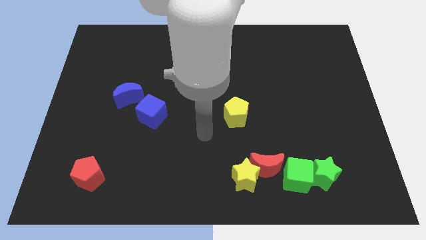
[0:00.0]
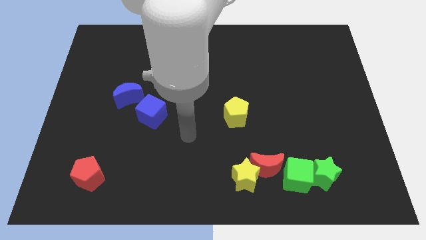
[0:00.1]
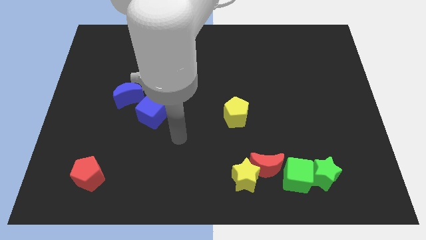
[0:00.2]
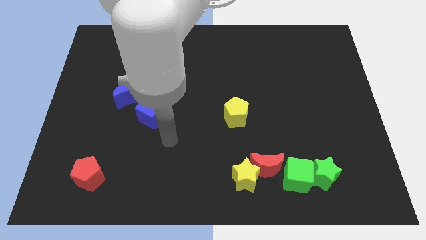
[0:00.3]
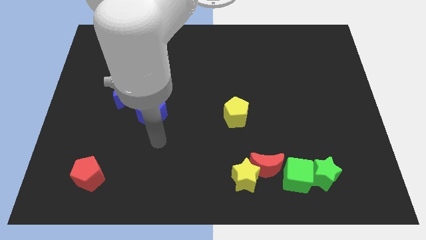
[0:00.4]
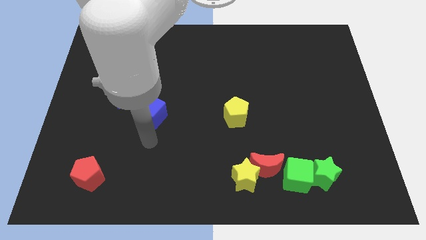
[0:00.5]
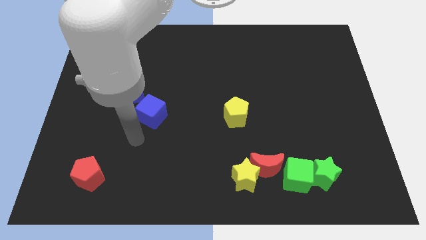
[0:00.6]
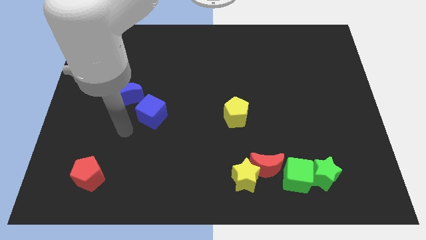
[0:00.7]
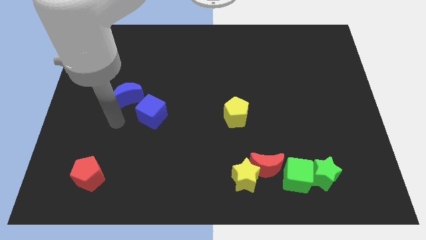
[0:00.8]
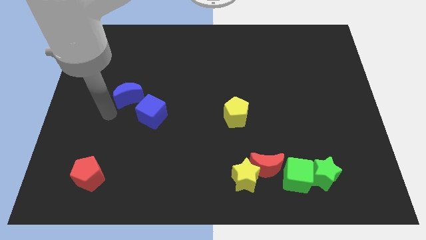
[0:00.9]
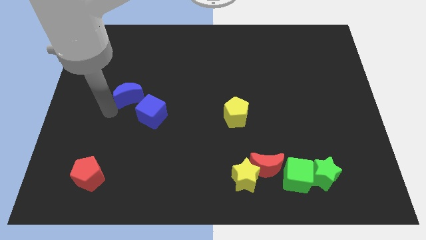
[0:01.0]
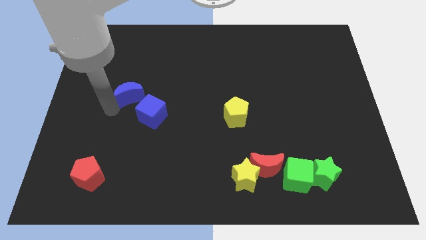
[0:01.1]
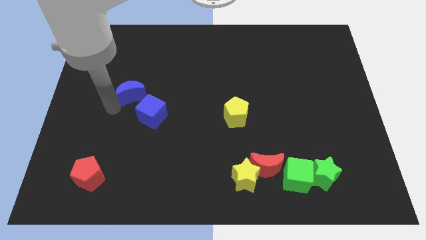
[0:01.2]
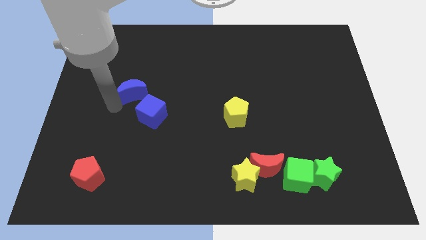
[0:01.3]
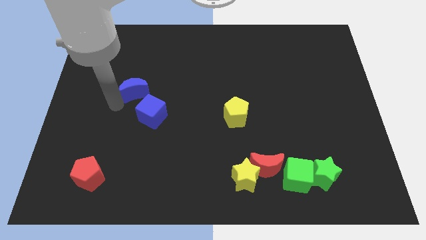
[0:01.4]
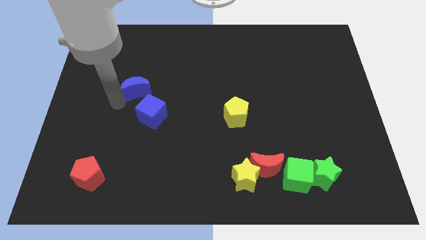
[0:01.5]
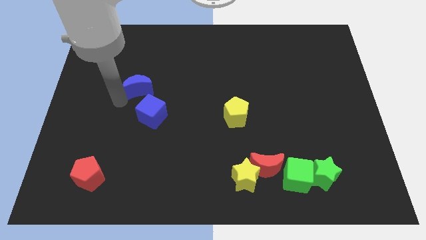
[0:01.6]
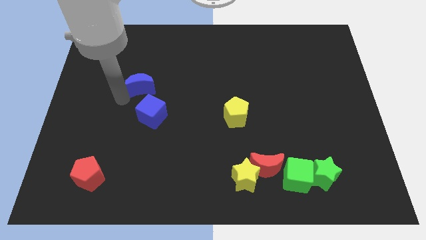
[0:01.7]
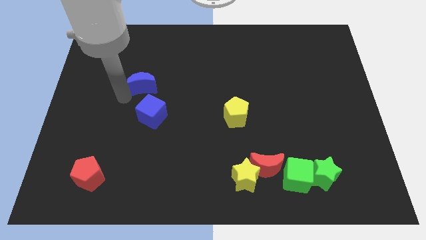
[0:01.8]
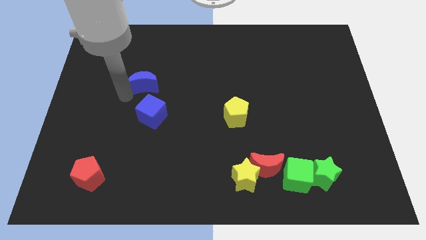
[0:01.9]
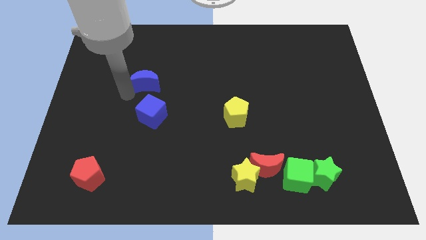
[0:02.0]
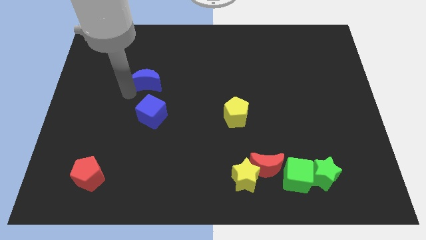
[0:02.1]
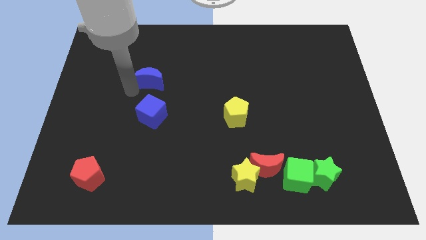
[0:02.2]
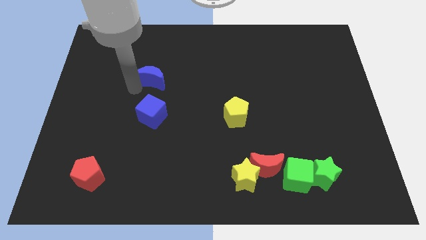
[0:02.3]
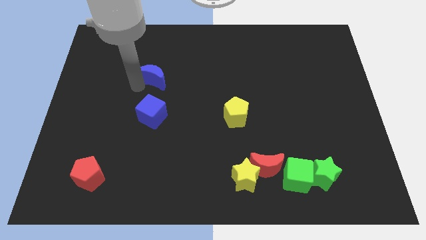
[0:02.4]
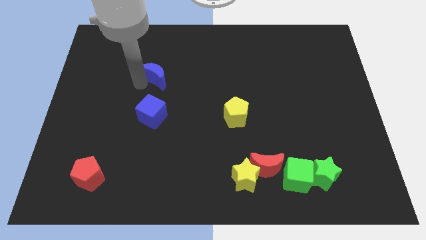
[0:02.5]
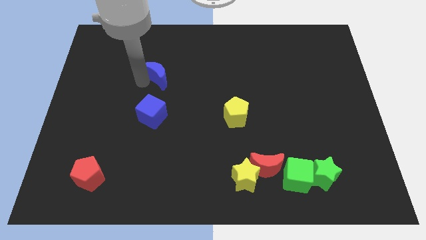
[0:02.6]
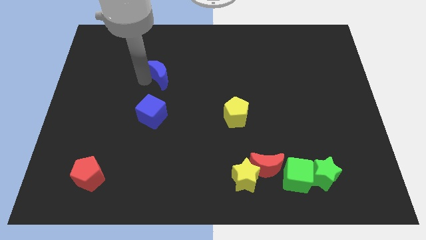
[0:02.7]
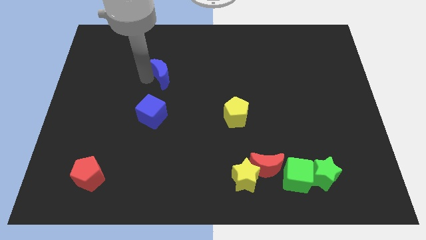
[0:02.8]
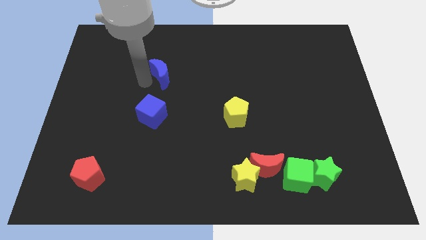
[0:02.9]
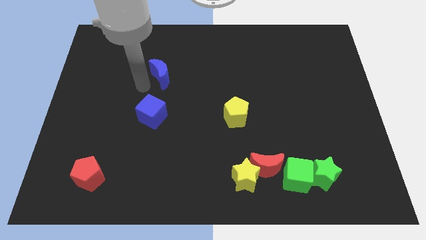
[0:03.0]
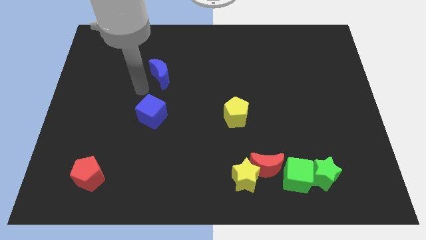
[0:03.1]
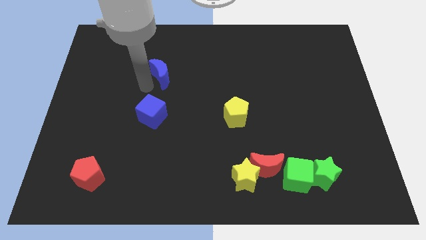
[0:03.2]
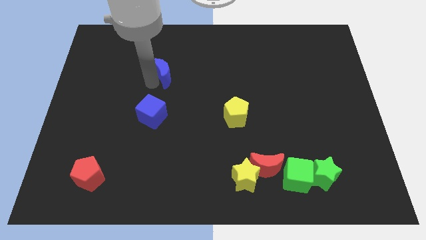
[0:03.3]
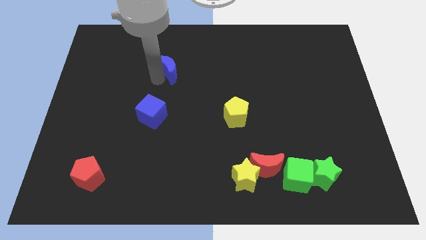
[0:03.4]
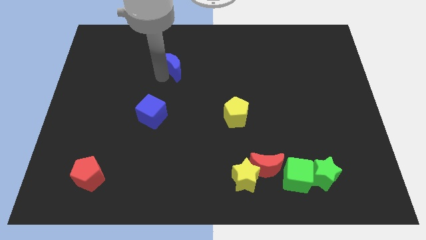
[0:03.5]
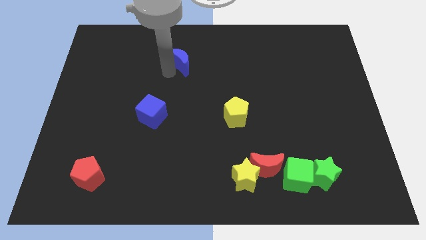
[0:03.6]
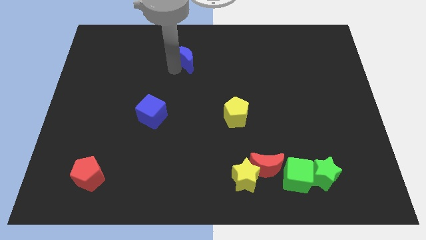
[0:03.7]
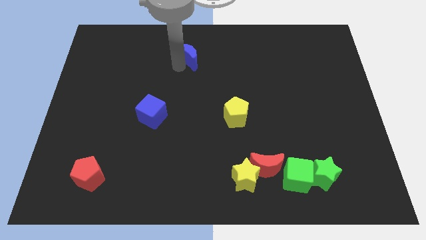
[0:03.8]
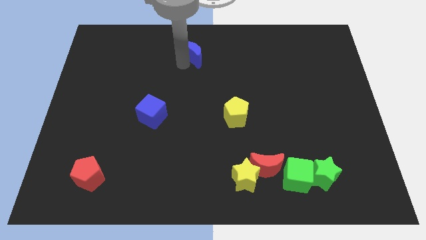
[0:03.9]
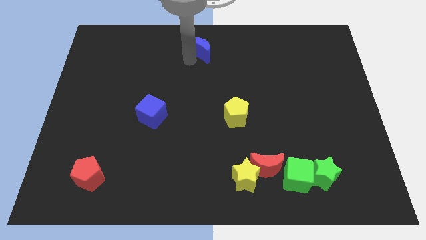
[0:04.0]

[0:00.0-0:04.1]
push the blue moon to the top side

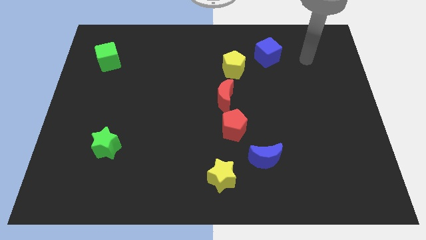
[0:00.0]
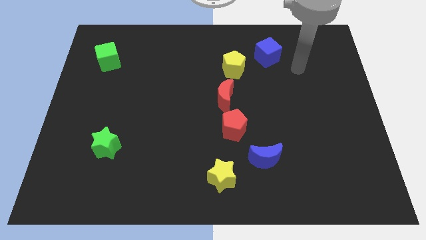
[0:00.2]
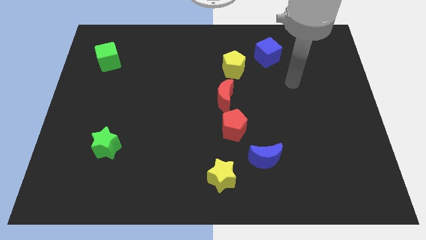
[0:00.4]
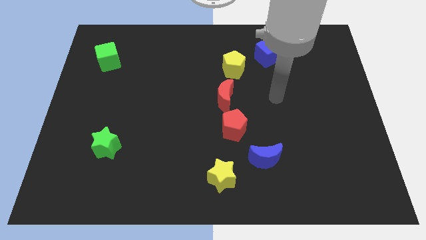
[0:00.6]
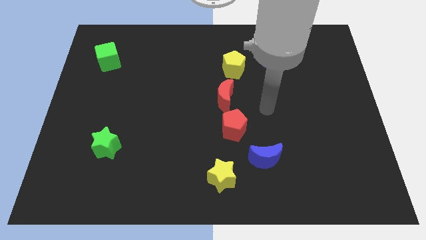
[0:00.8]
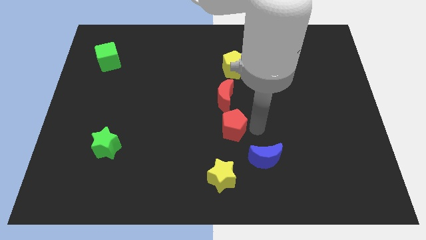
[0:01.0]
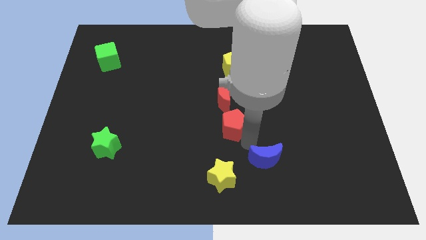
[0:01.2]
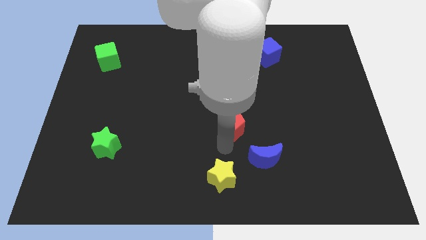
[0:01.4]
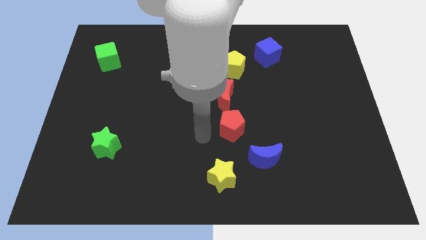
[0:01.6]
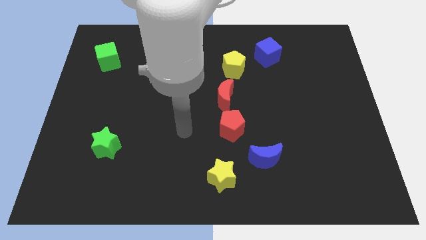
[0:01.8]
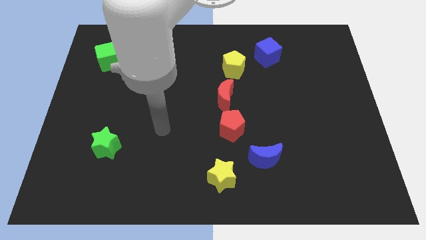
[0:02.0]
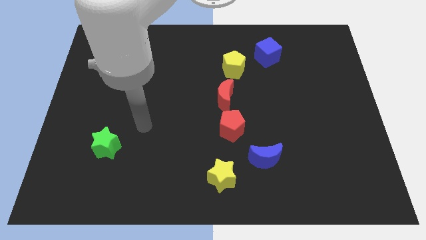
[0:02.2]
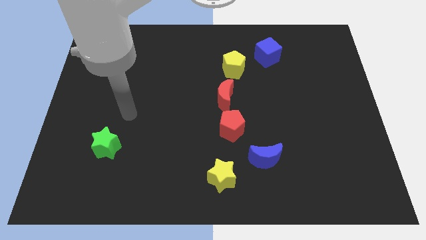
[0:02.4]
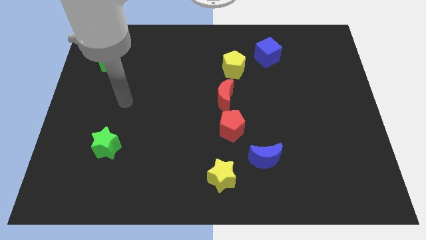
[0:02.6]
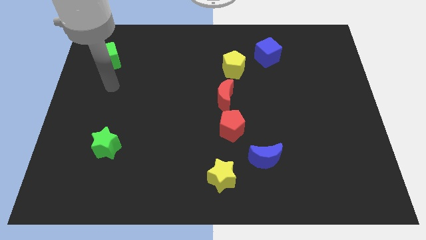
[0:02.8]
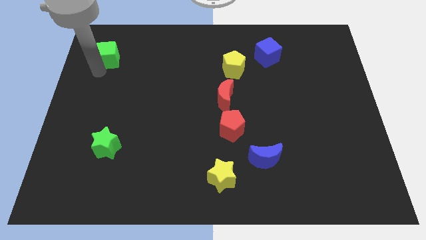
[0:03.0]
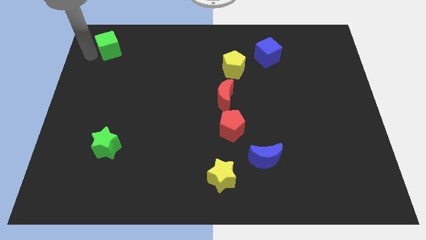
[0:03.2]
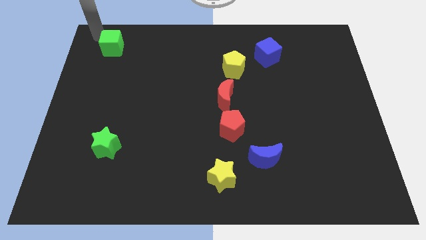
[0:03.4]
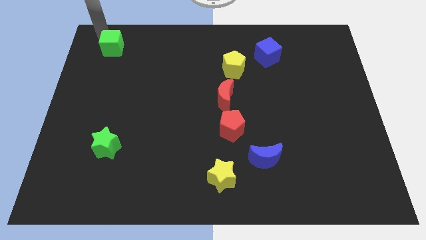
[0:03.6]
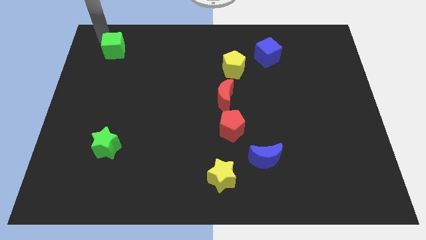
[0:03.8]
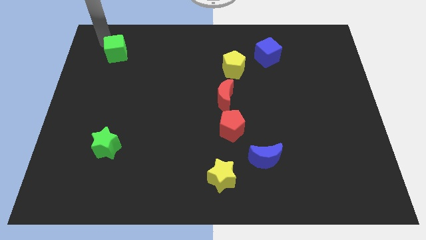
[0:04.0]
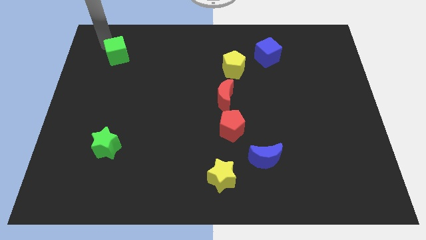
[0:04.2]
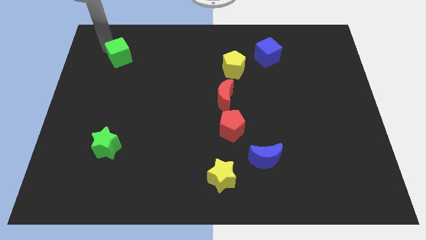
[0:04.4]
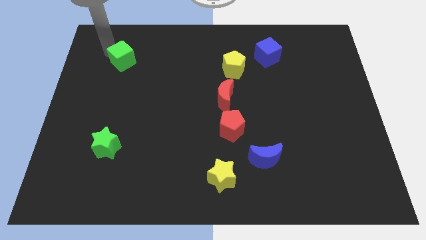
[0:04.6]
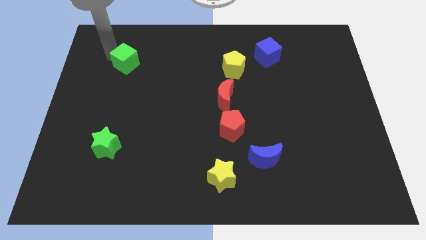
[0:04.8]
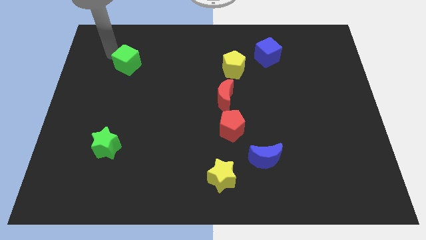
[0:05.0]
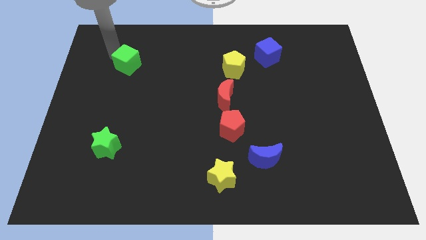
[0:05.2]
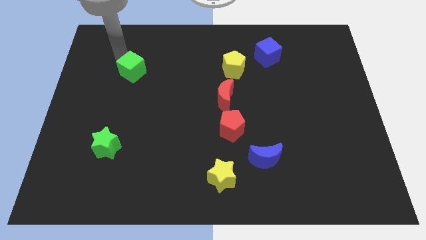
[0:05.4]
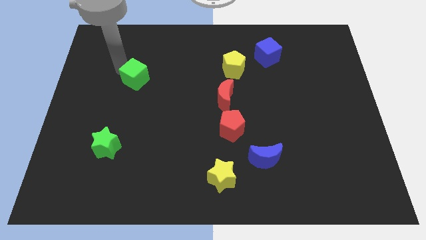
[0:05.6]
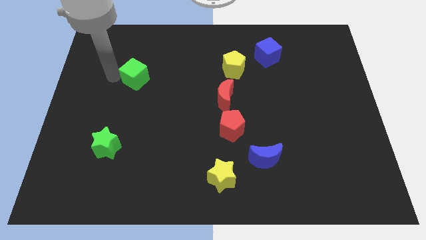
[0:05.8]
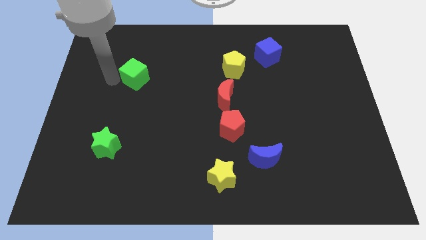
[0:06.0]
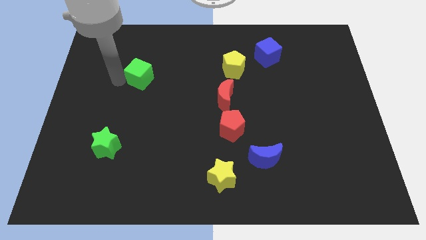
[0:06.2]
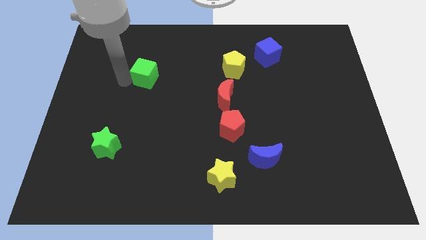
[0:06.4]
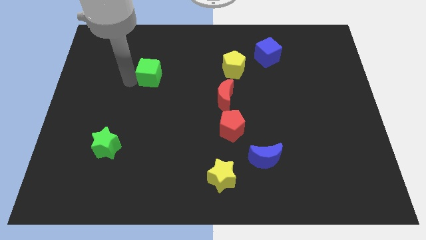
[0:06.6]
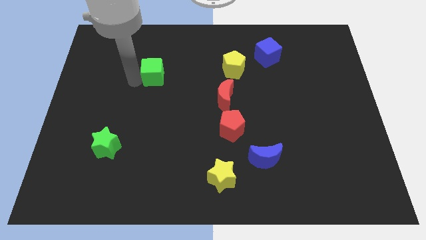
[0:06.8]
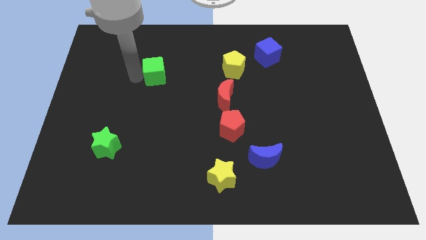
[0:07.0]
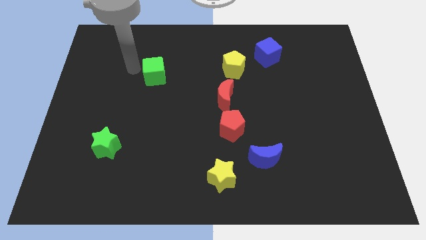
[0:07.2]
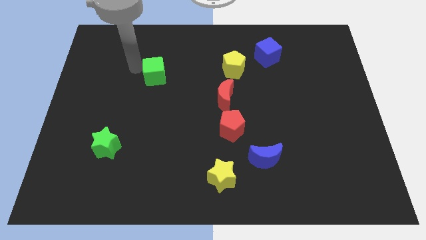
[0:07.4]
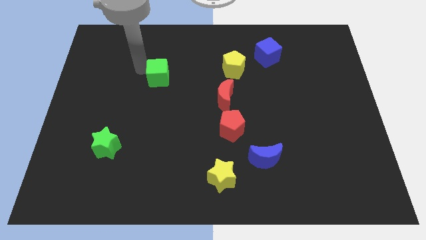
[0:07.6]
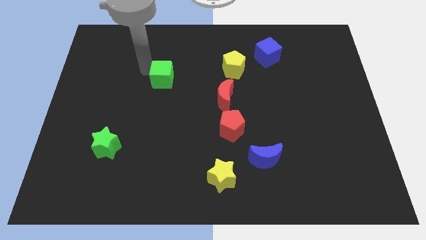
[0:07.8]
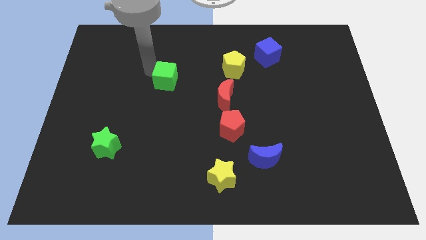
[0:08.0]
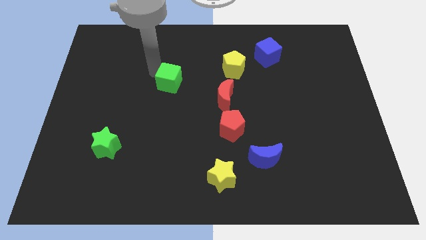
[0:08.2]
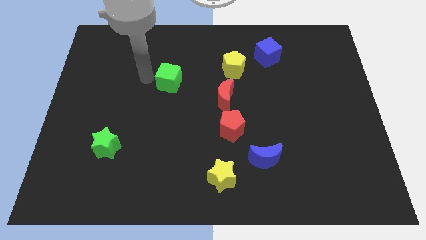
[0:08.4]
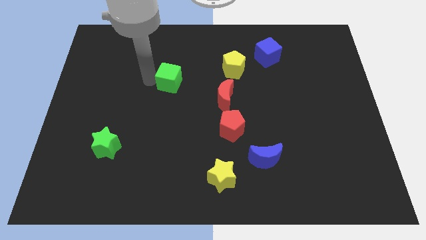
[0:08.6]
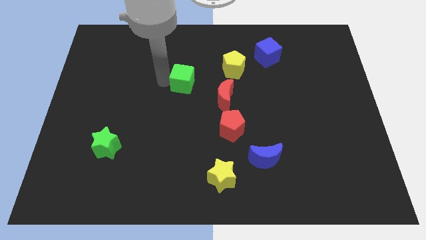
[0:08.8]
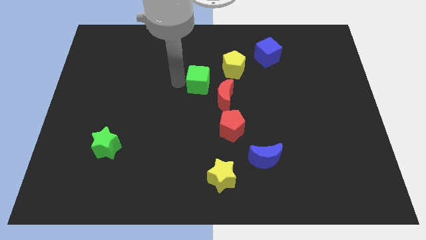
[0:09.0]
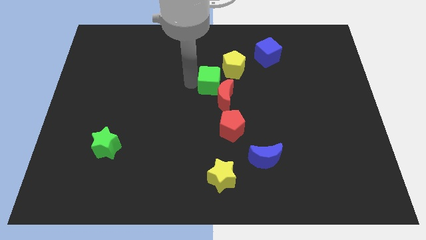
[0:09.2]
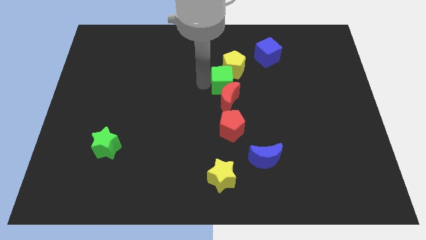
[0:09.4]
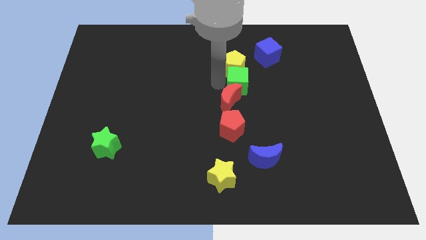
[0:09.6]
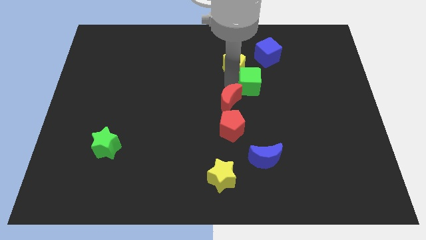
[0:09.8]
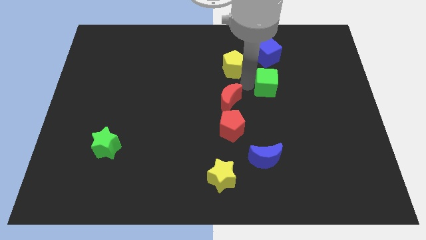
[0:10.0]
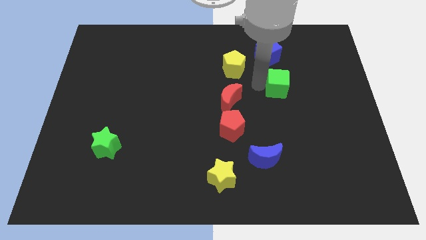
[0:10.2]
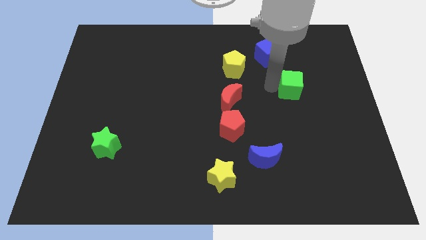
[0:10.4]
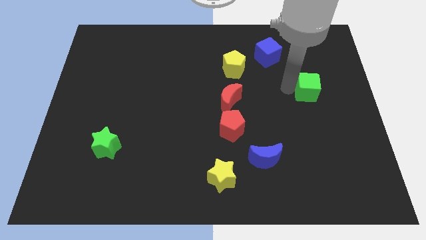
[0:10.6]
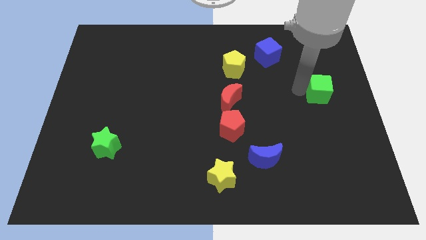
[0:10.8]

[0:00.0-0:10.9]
put the green cube to the right side of the board
